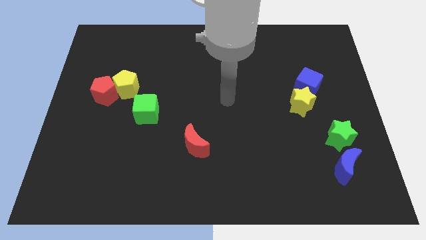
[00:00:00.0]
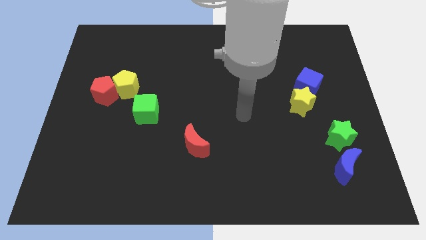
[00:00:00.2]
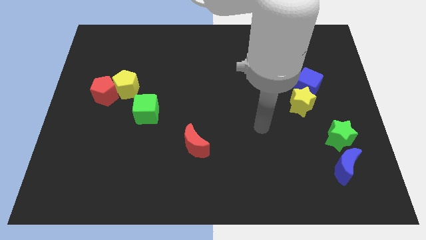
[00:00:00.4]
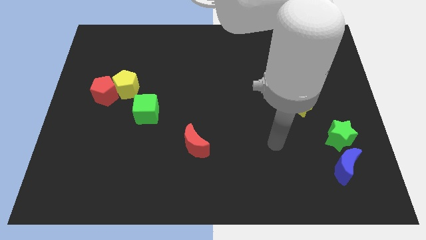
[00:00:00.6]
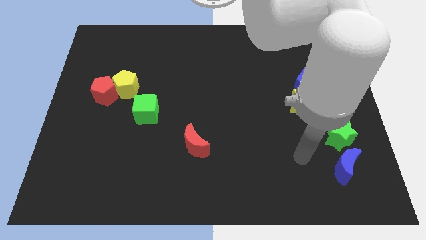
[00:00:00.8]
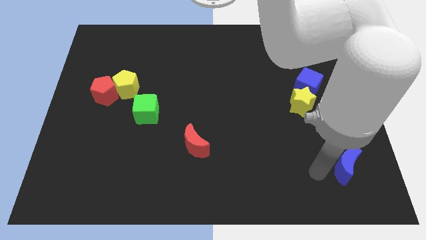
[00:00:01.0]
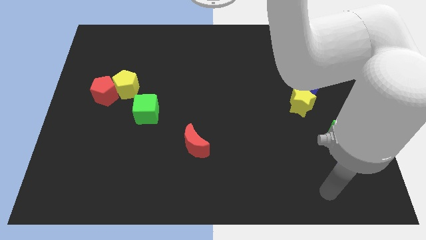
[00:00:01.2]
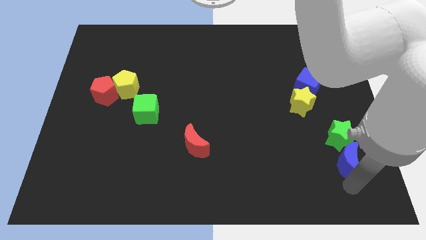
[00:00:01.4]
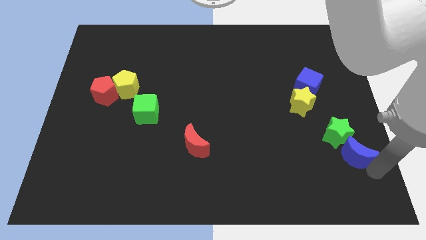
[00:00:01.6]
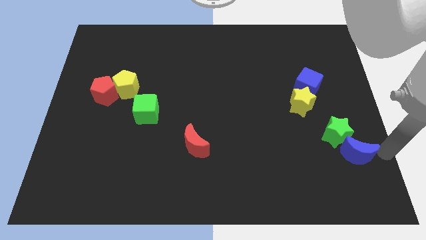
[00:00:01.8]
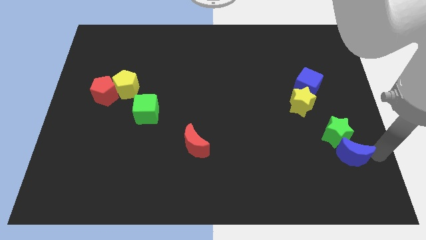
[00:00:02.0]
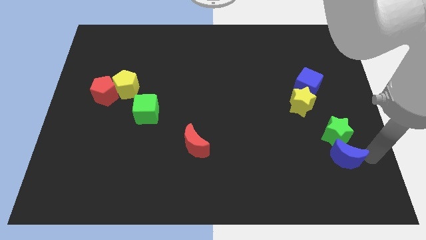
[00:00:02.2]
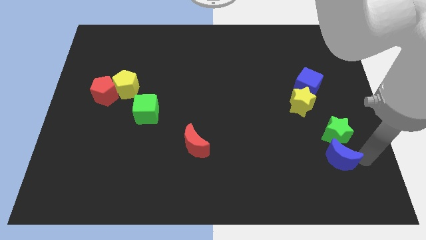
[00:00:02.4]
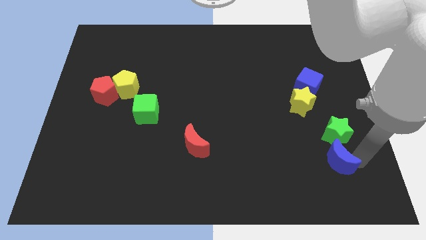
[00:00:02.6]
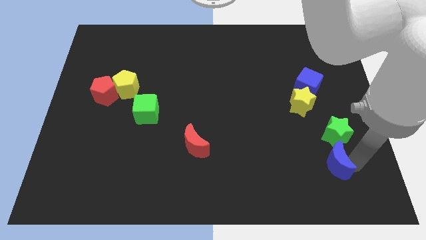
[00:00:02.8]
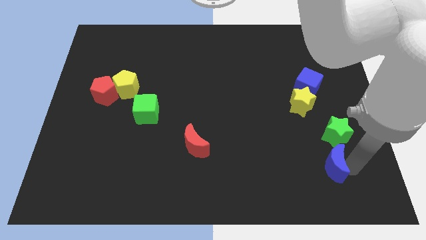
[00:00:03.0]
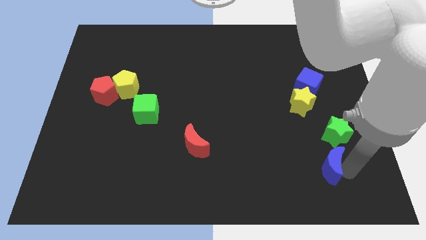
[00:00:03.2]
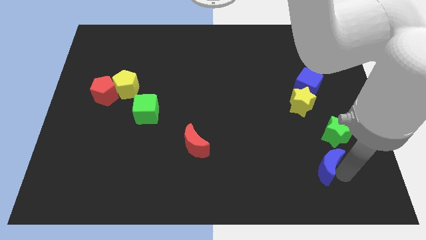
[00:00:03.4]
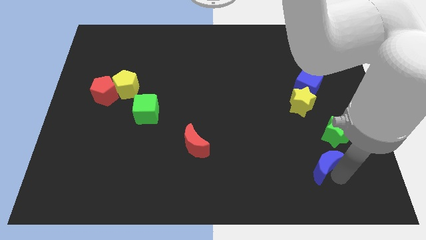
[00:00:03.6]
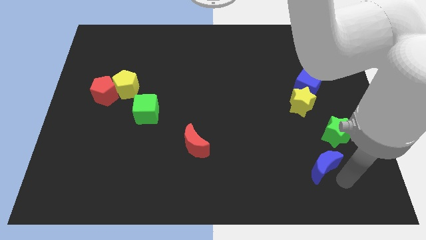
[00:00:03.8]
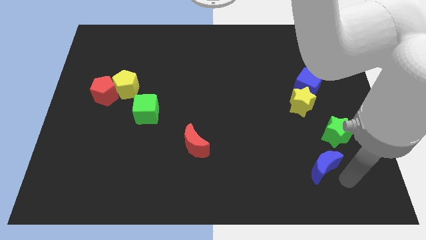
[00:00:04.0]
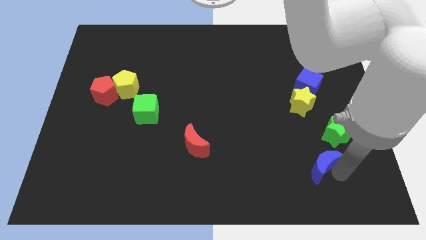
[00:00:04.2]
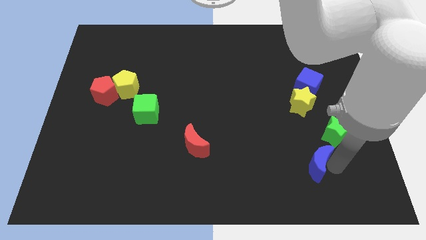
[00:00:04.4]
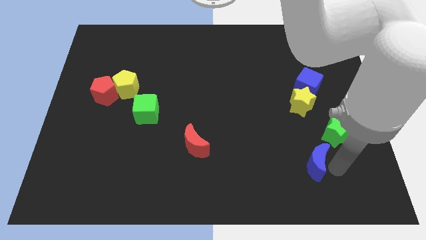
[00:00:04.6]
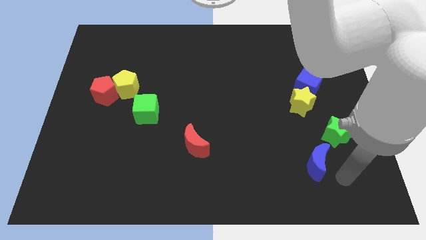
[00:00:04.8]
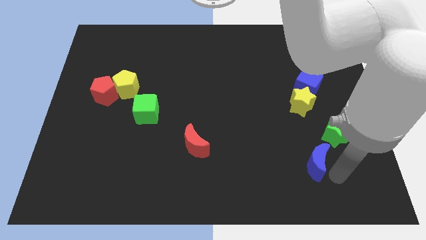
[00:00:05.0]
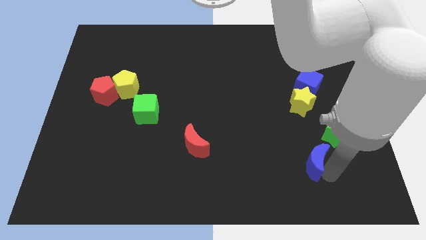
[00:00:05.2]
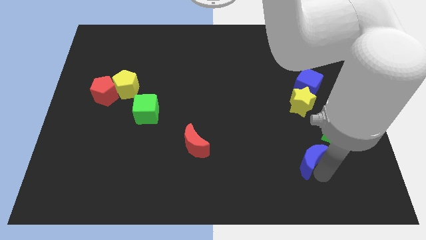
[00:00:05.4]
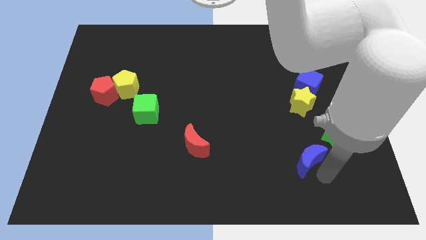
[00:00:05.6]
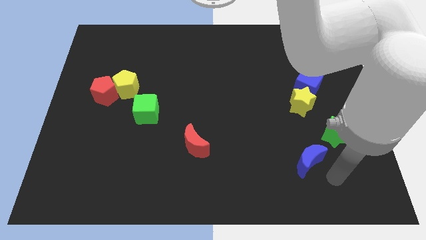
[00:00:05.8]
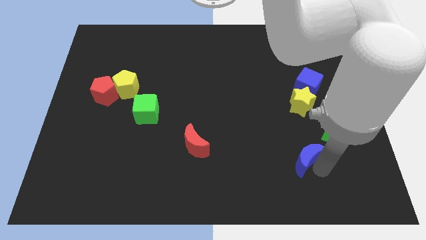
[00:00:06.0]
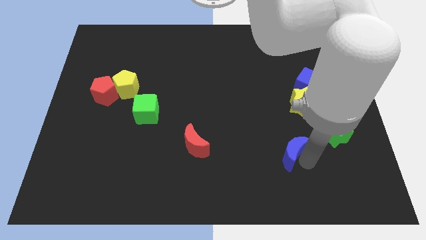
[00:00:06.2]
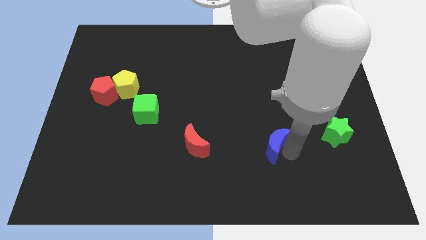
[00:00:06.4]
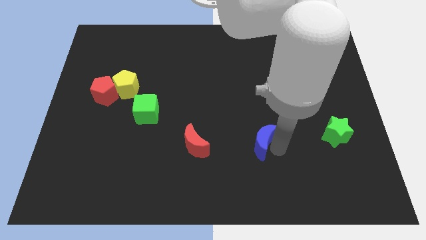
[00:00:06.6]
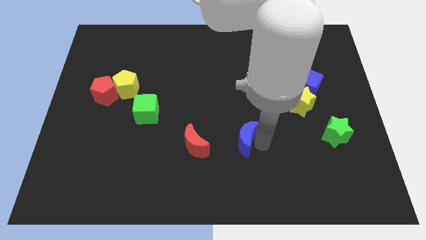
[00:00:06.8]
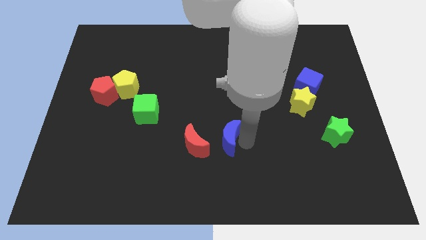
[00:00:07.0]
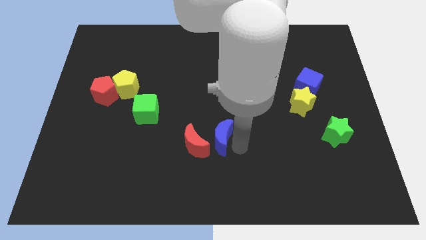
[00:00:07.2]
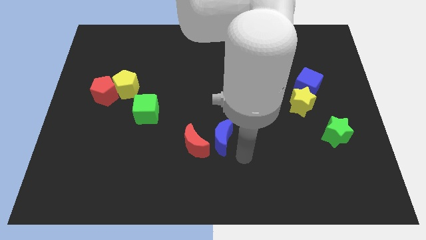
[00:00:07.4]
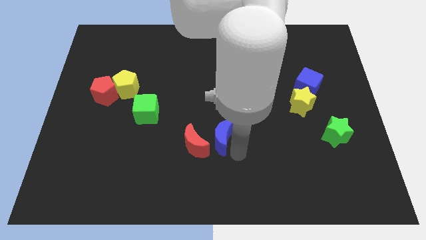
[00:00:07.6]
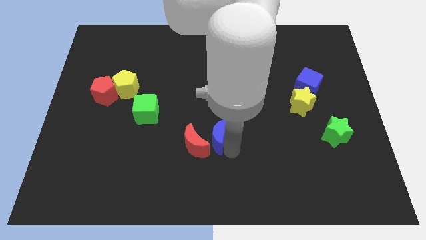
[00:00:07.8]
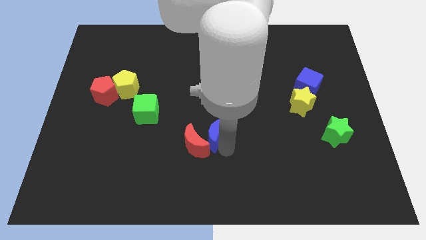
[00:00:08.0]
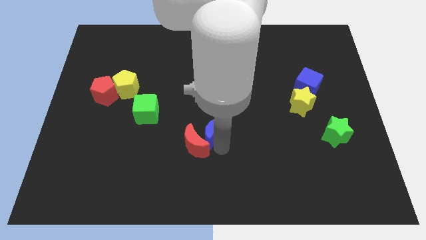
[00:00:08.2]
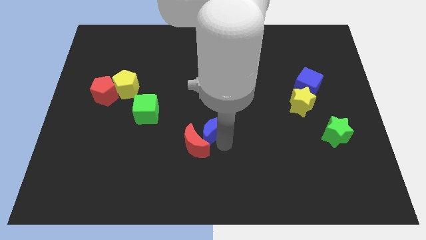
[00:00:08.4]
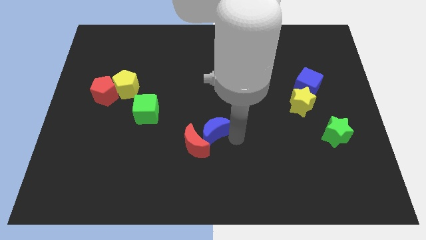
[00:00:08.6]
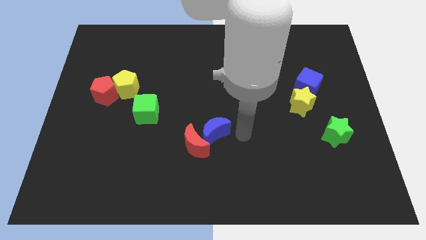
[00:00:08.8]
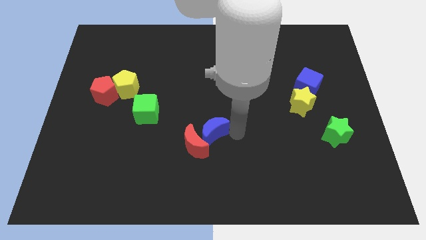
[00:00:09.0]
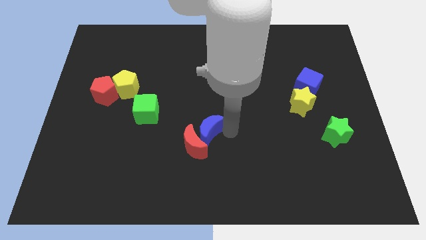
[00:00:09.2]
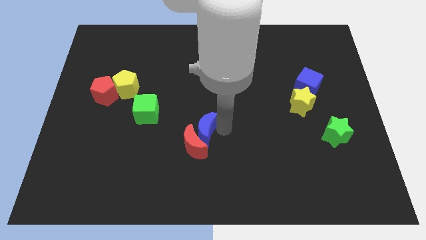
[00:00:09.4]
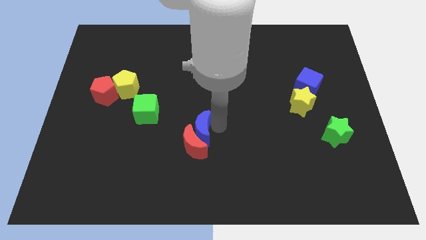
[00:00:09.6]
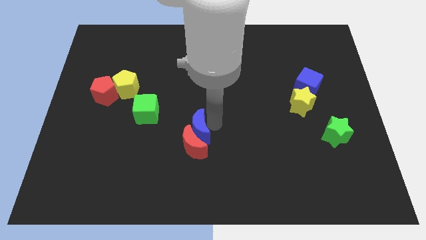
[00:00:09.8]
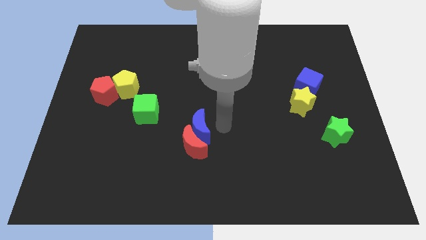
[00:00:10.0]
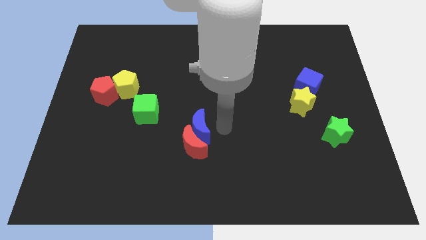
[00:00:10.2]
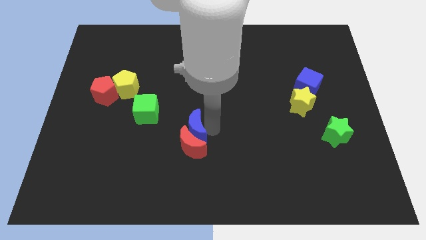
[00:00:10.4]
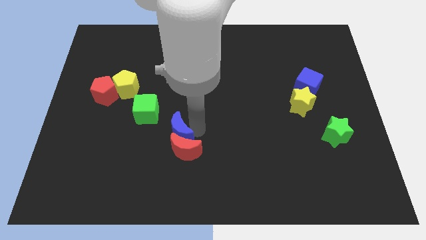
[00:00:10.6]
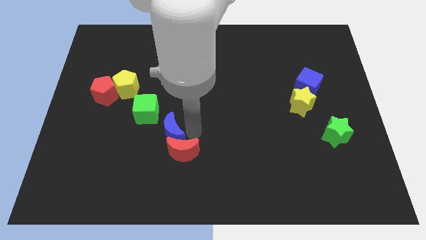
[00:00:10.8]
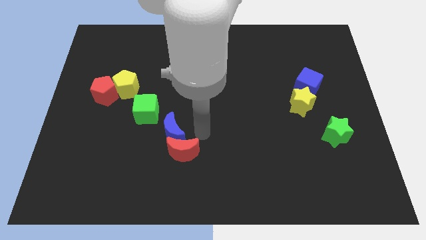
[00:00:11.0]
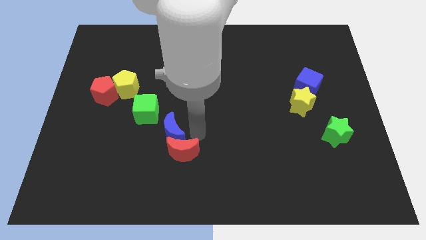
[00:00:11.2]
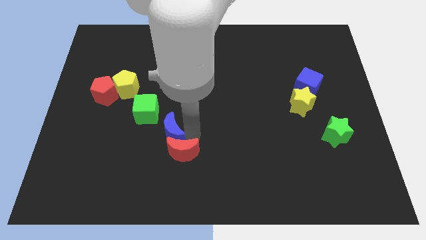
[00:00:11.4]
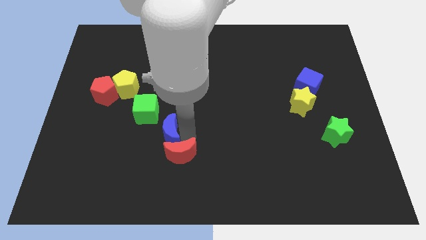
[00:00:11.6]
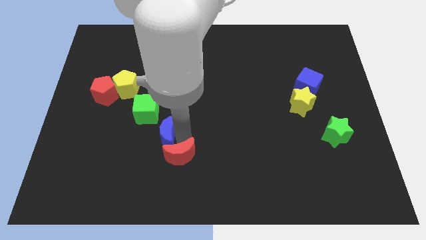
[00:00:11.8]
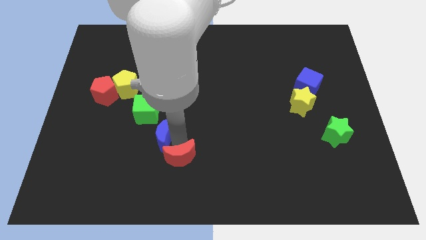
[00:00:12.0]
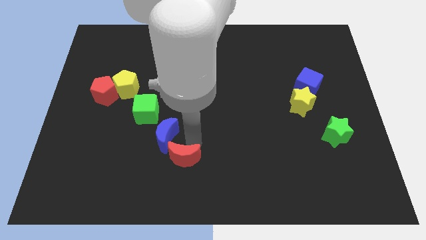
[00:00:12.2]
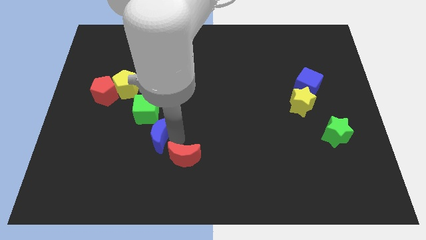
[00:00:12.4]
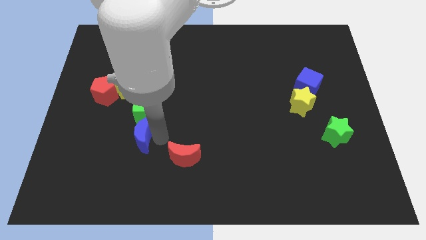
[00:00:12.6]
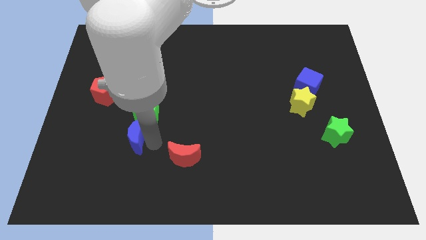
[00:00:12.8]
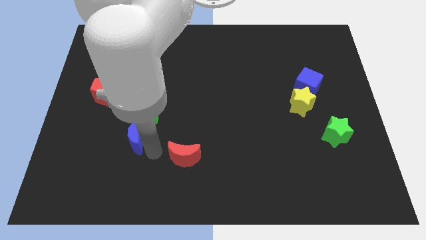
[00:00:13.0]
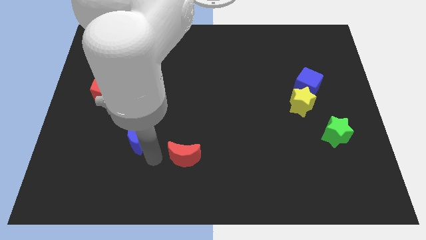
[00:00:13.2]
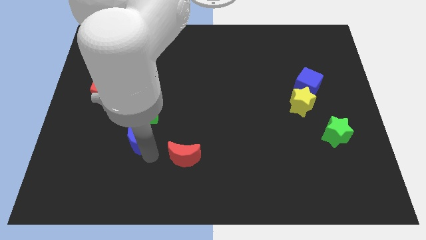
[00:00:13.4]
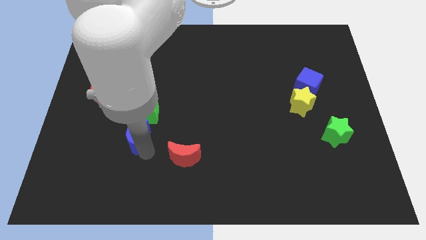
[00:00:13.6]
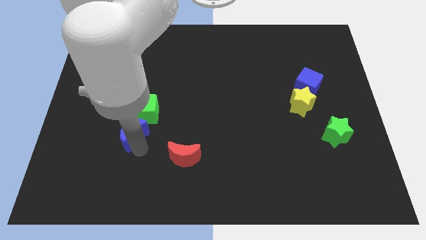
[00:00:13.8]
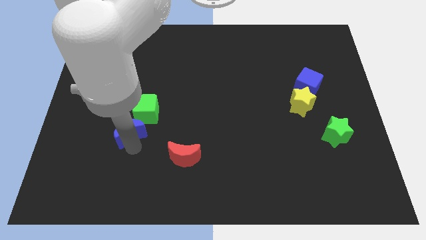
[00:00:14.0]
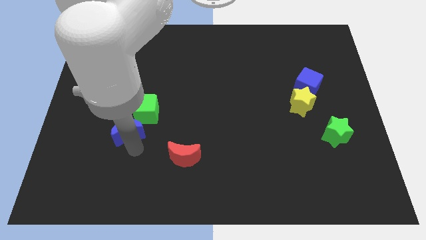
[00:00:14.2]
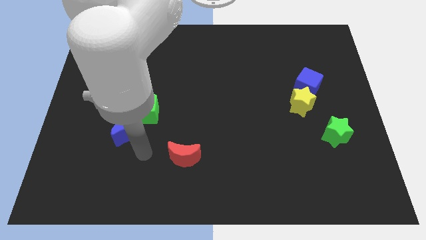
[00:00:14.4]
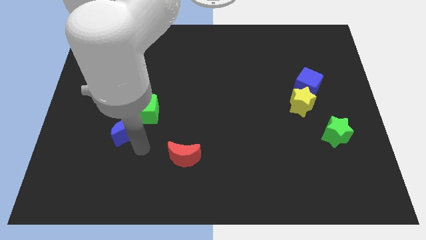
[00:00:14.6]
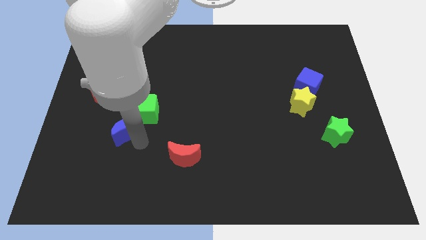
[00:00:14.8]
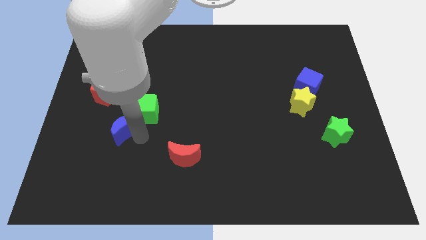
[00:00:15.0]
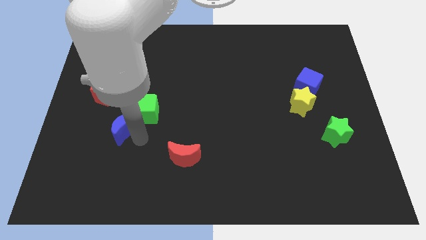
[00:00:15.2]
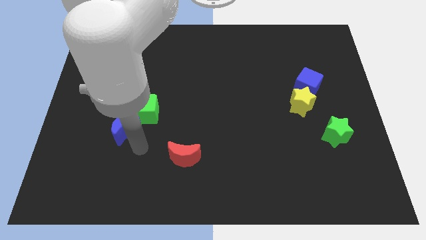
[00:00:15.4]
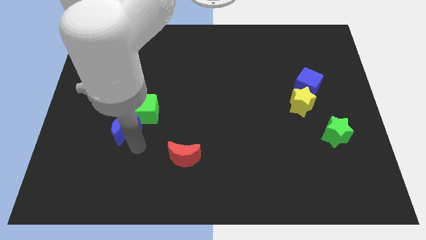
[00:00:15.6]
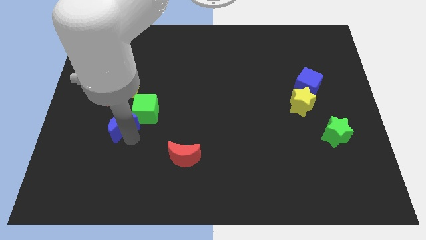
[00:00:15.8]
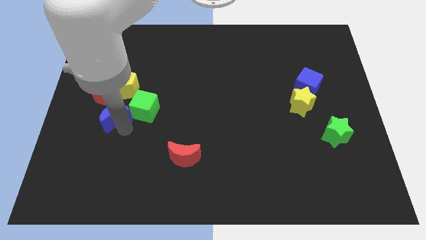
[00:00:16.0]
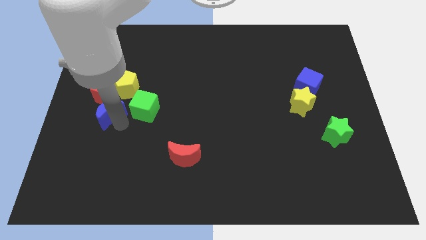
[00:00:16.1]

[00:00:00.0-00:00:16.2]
slide the blue moon to the bottom left side of the yellow pentagon
